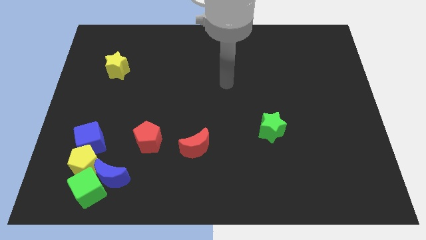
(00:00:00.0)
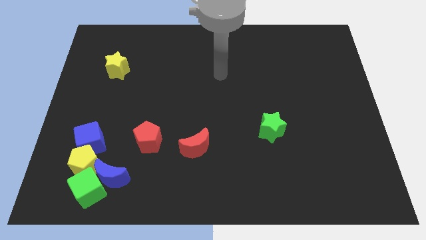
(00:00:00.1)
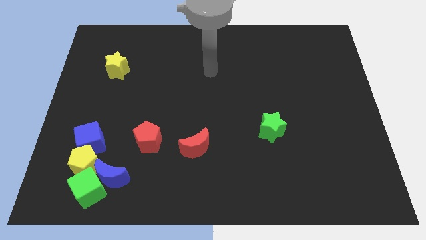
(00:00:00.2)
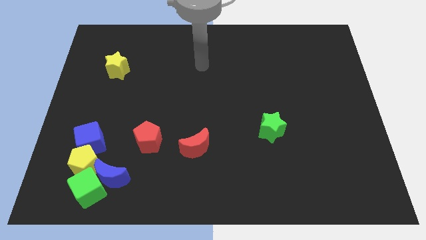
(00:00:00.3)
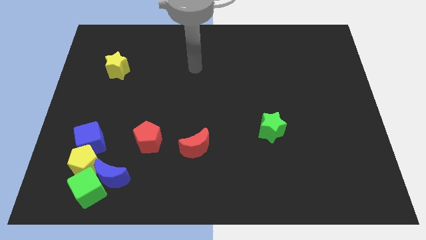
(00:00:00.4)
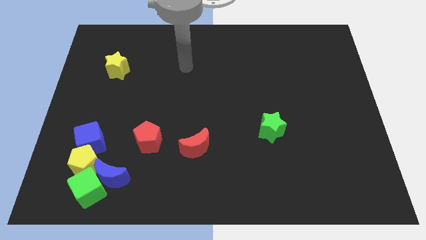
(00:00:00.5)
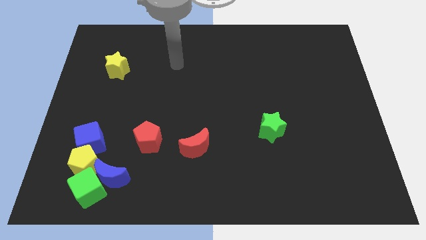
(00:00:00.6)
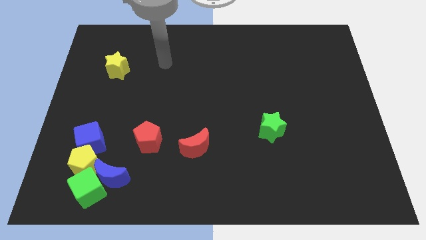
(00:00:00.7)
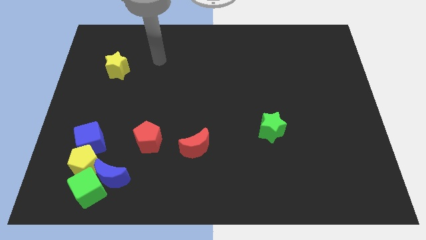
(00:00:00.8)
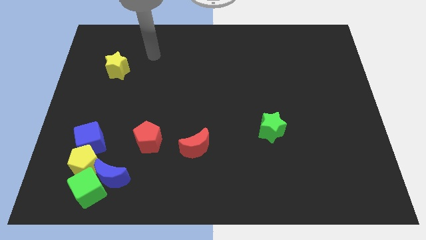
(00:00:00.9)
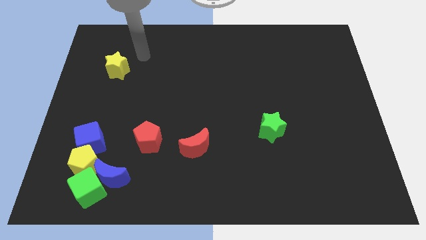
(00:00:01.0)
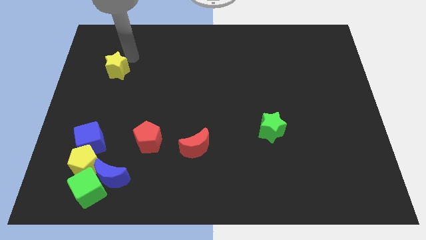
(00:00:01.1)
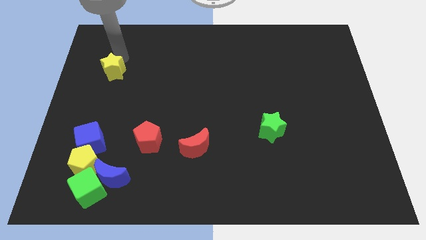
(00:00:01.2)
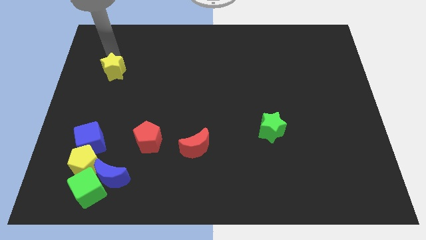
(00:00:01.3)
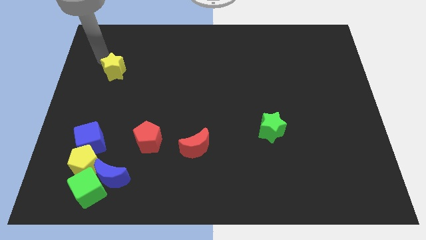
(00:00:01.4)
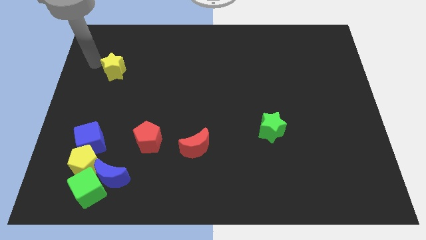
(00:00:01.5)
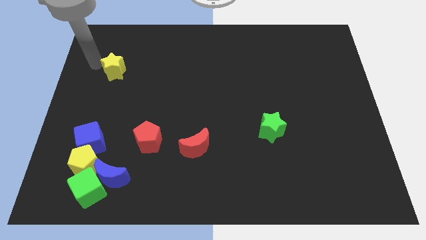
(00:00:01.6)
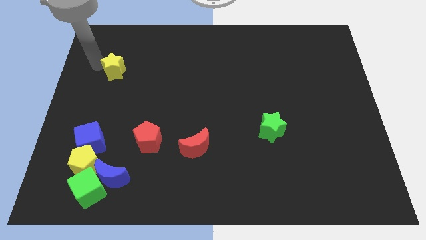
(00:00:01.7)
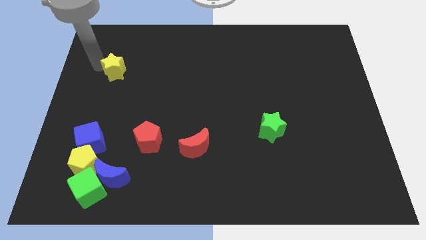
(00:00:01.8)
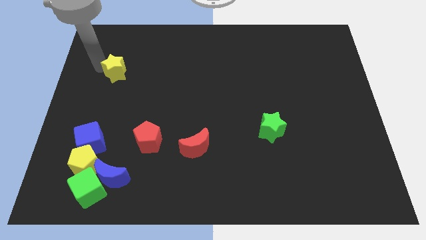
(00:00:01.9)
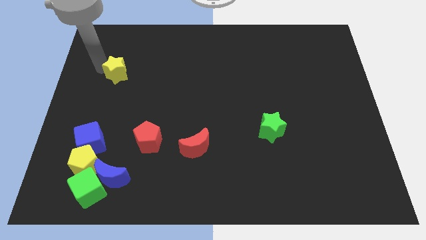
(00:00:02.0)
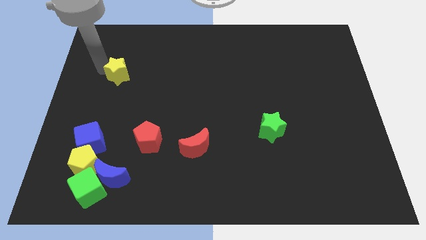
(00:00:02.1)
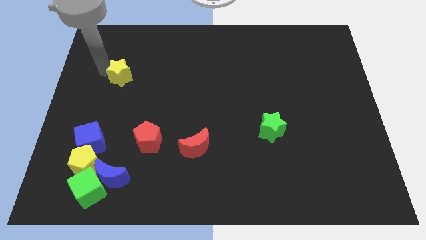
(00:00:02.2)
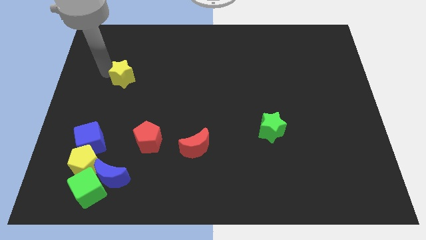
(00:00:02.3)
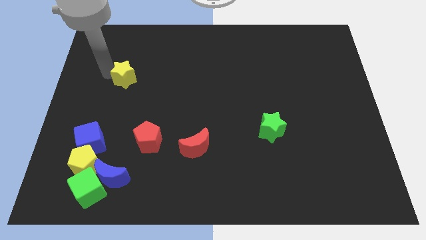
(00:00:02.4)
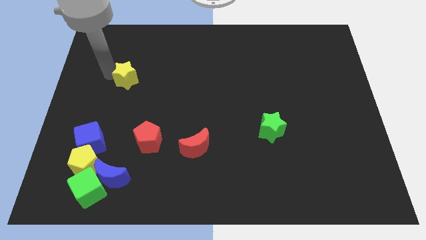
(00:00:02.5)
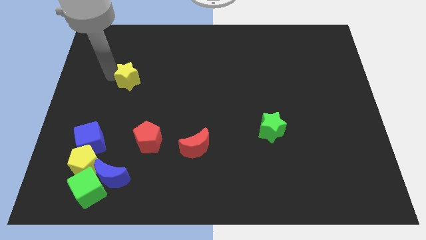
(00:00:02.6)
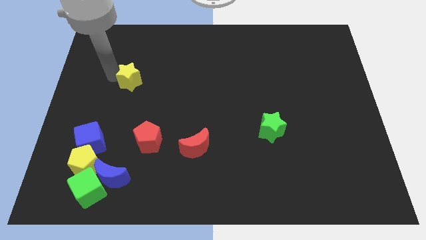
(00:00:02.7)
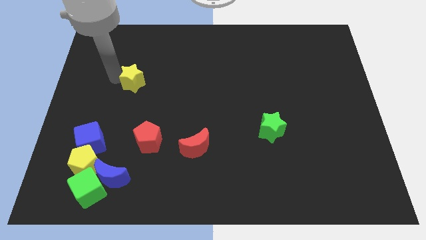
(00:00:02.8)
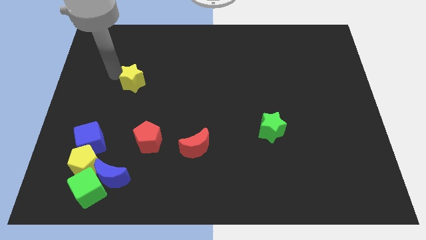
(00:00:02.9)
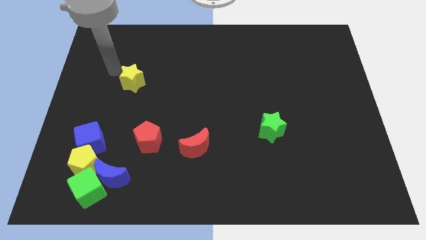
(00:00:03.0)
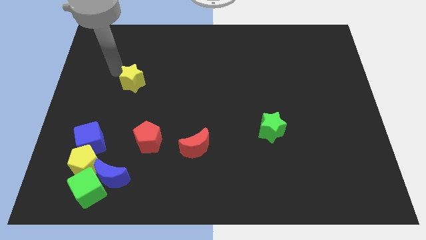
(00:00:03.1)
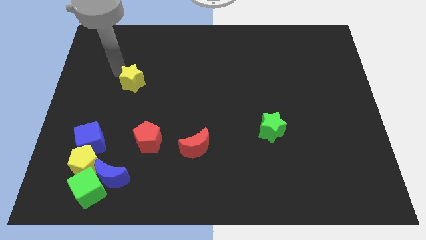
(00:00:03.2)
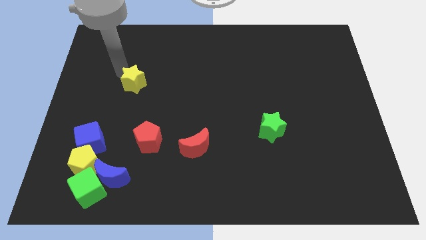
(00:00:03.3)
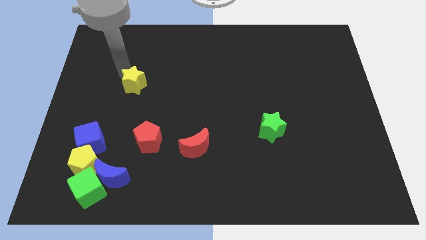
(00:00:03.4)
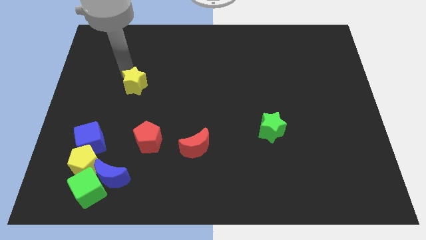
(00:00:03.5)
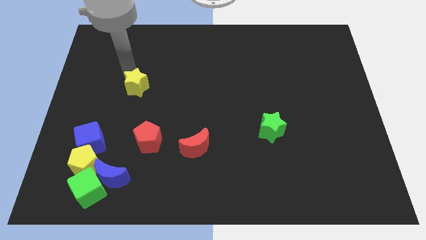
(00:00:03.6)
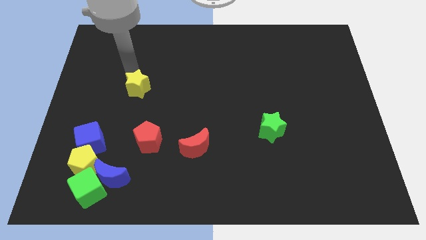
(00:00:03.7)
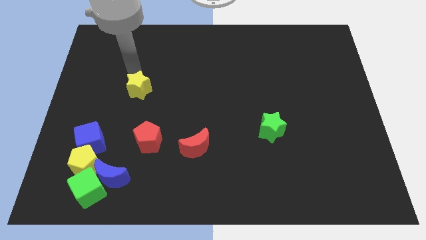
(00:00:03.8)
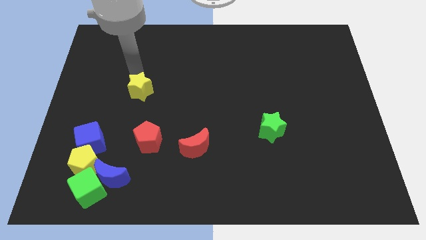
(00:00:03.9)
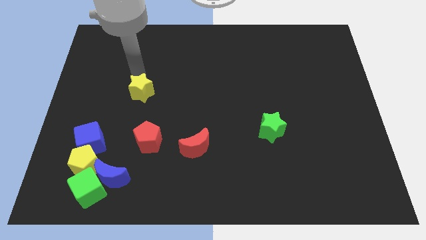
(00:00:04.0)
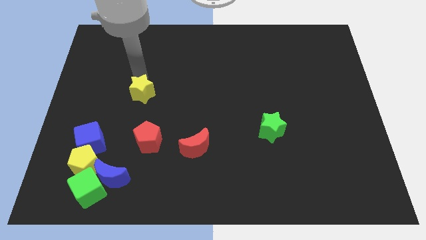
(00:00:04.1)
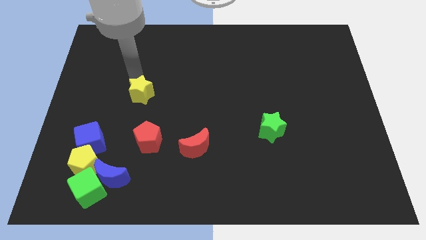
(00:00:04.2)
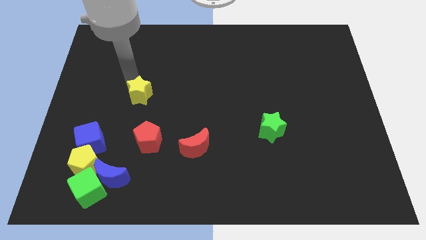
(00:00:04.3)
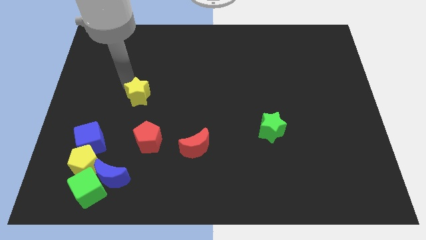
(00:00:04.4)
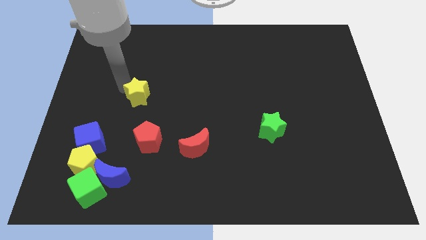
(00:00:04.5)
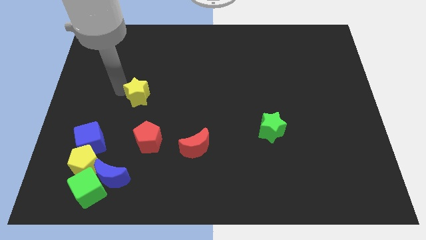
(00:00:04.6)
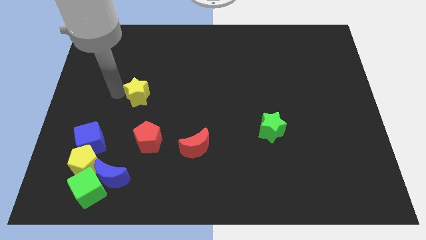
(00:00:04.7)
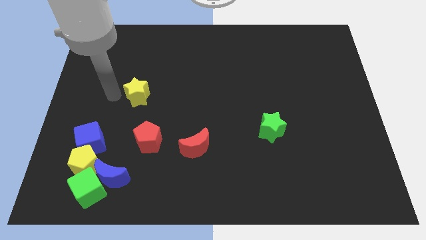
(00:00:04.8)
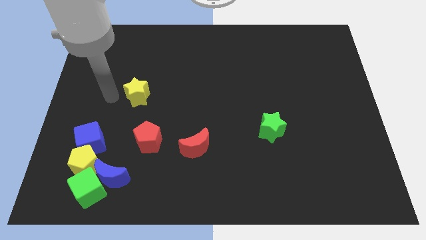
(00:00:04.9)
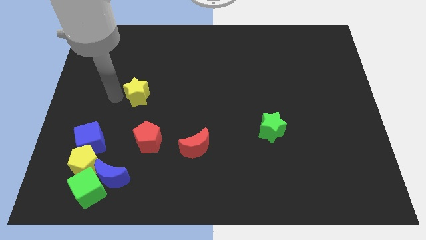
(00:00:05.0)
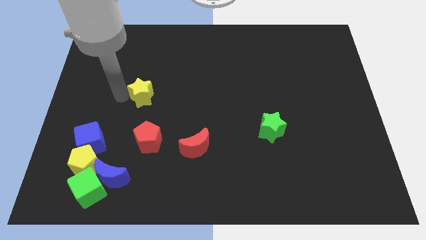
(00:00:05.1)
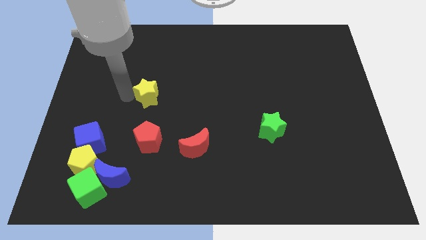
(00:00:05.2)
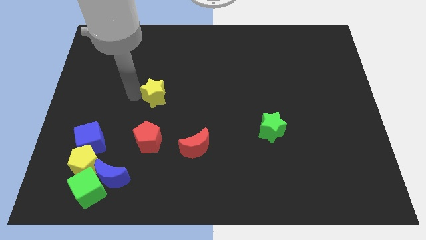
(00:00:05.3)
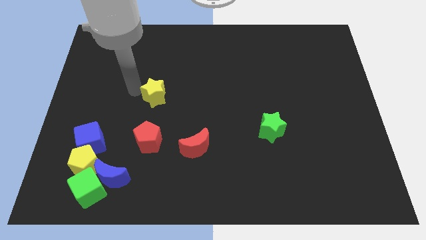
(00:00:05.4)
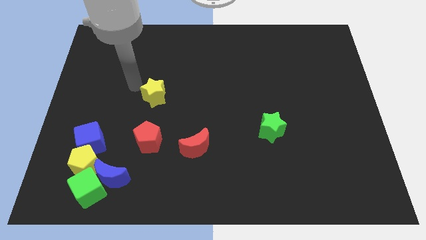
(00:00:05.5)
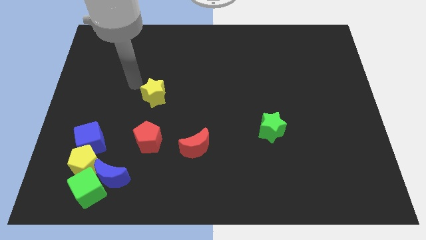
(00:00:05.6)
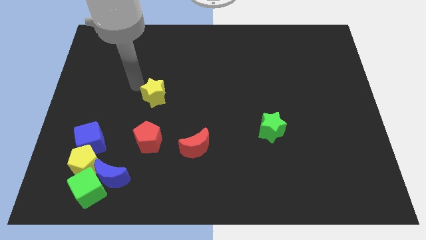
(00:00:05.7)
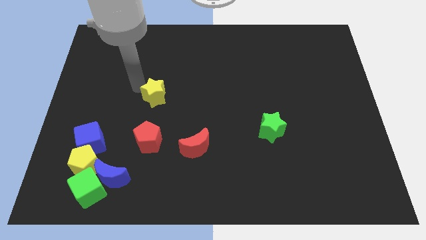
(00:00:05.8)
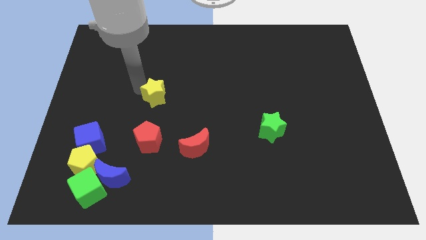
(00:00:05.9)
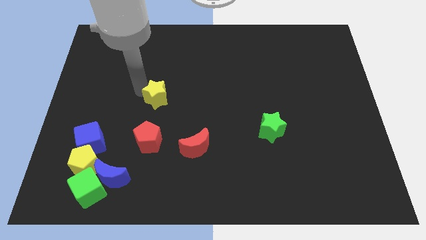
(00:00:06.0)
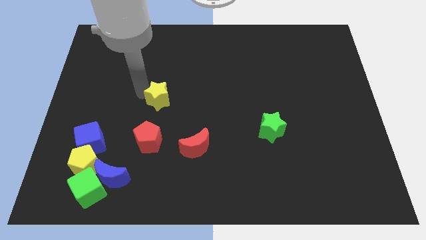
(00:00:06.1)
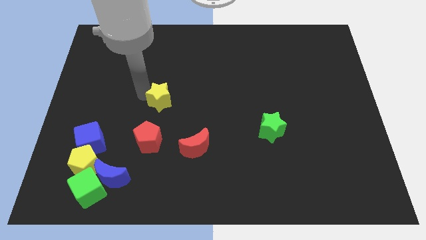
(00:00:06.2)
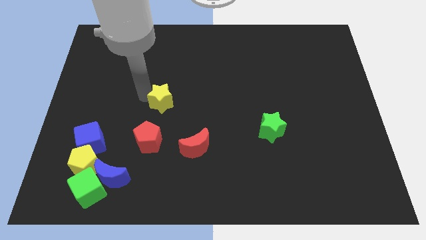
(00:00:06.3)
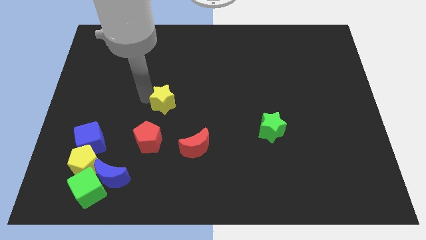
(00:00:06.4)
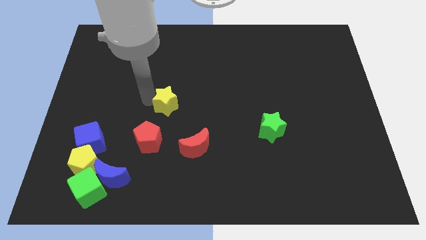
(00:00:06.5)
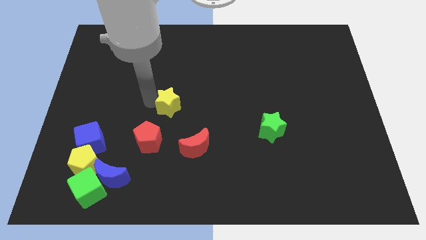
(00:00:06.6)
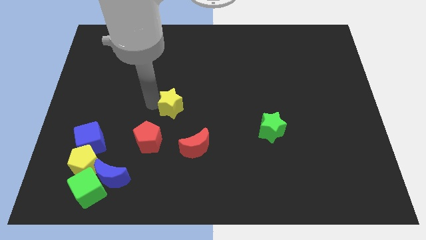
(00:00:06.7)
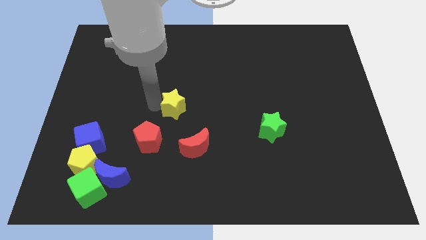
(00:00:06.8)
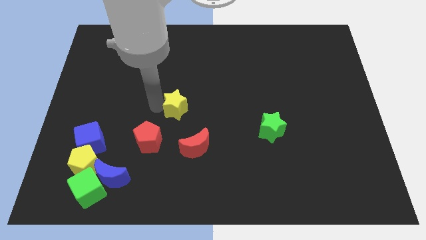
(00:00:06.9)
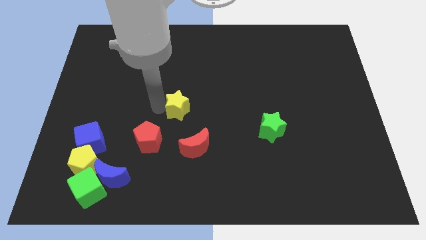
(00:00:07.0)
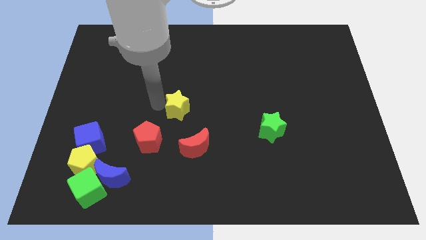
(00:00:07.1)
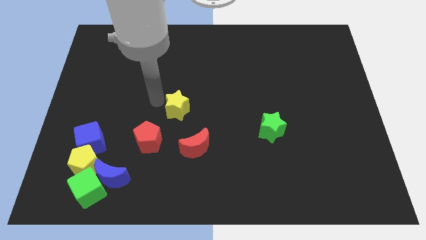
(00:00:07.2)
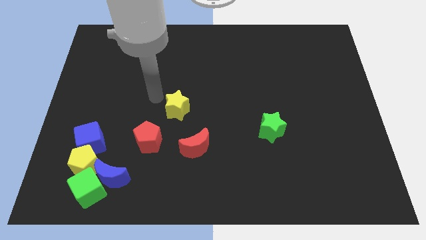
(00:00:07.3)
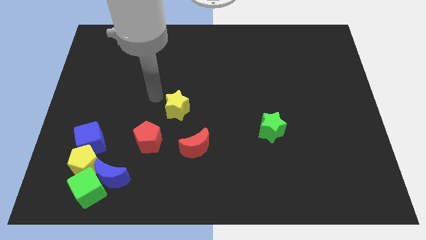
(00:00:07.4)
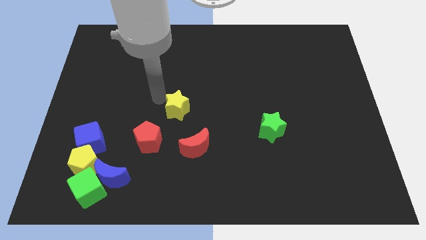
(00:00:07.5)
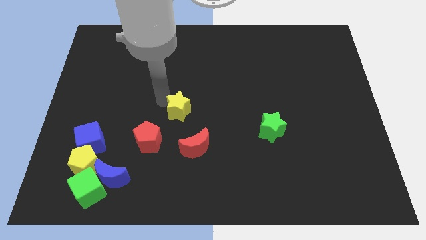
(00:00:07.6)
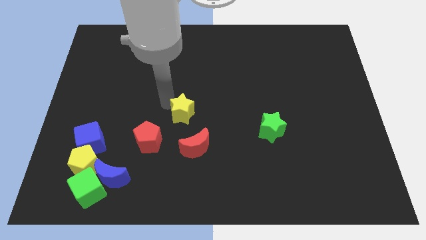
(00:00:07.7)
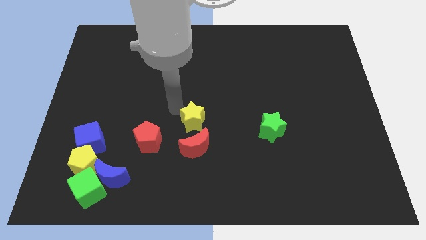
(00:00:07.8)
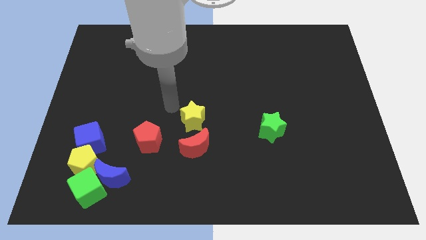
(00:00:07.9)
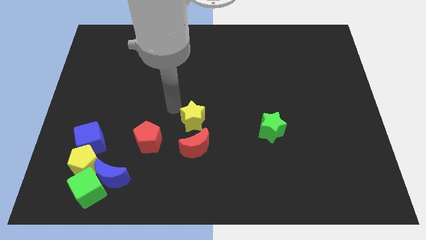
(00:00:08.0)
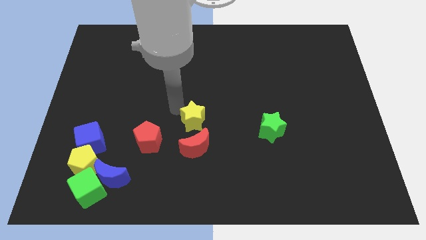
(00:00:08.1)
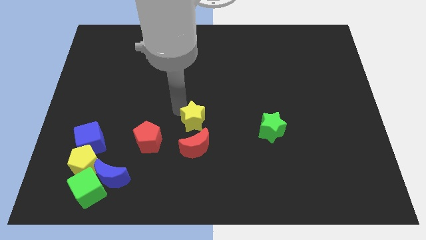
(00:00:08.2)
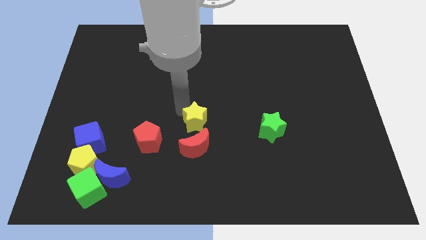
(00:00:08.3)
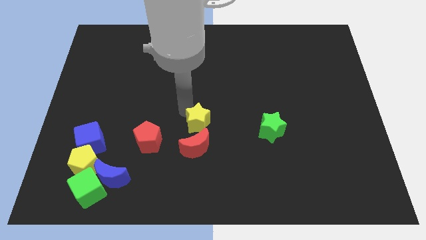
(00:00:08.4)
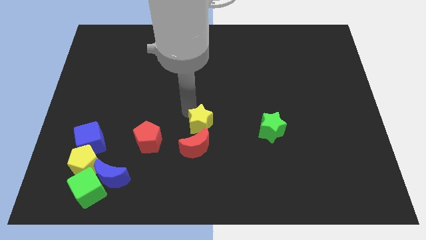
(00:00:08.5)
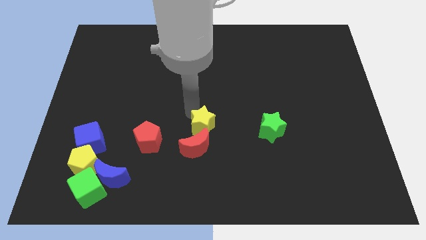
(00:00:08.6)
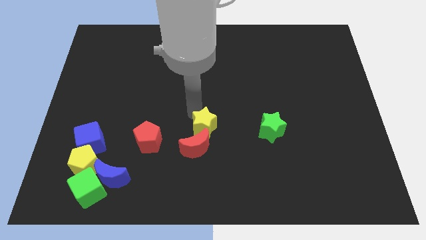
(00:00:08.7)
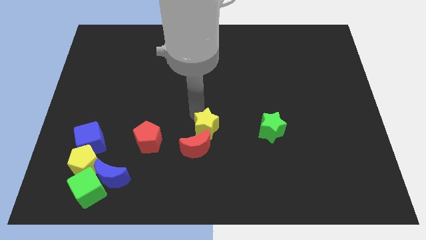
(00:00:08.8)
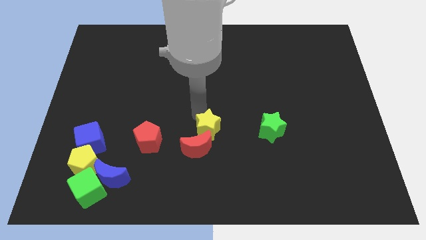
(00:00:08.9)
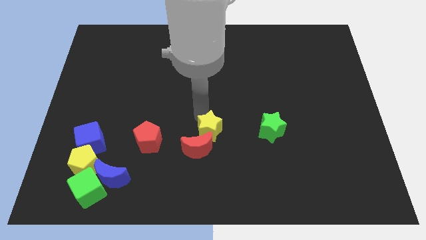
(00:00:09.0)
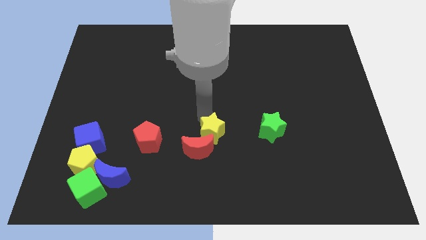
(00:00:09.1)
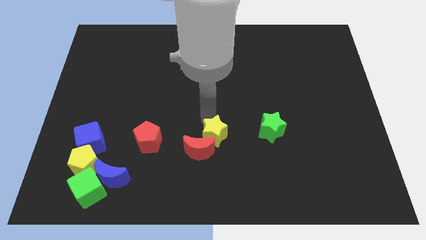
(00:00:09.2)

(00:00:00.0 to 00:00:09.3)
put the yellow star right of the red moon
